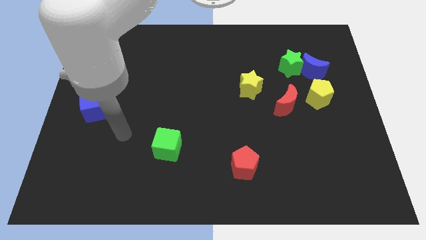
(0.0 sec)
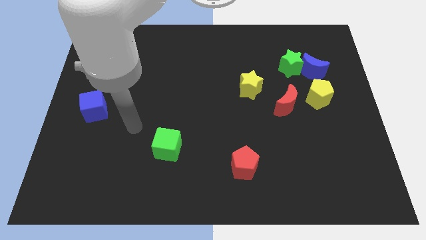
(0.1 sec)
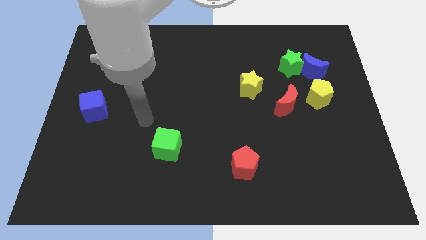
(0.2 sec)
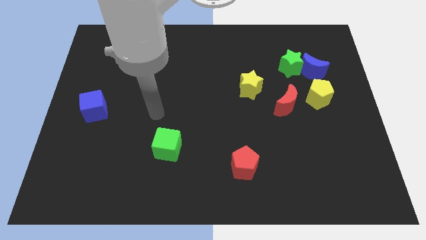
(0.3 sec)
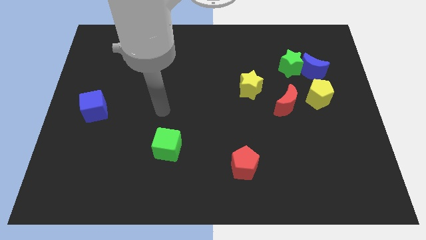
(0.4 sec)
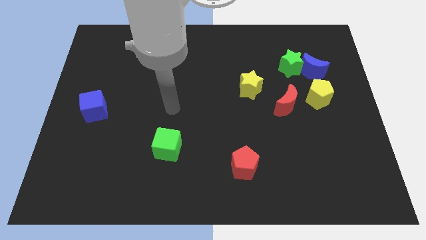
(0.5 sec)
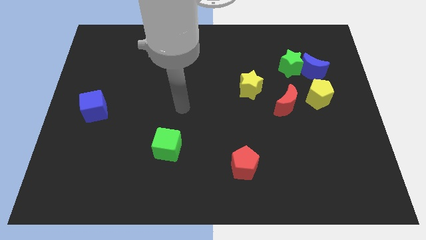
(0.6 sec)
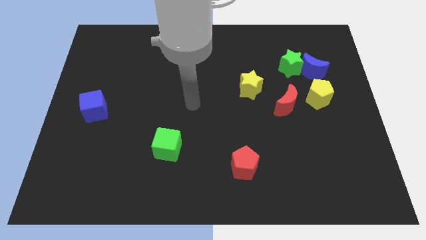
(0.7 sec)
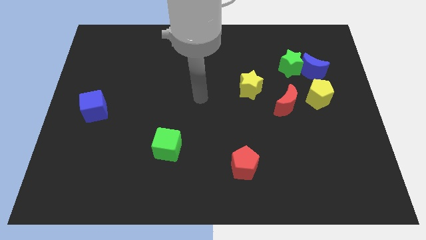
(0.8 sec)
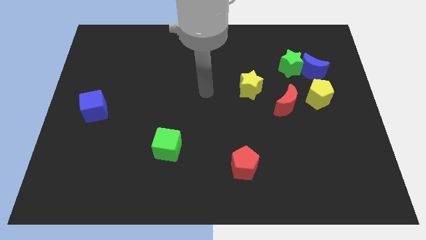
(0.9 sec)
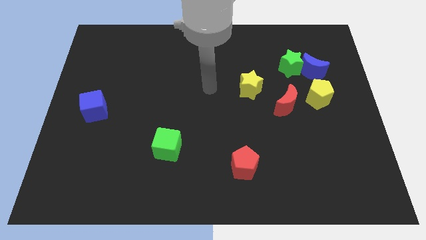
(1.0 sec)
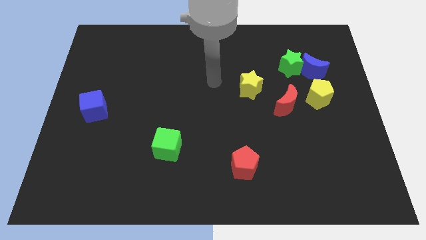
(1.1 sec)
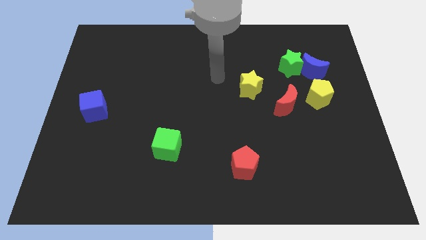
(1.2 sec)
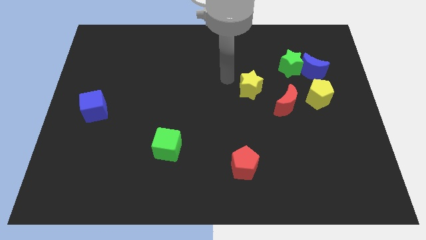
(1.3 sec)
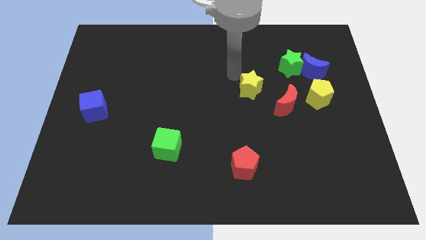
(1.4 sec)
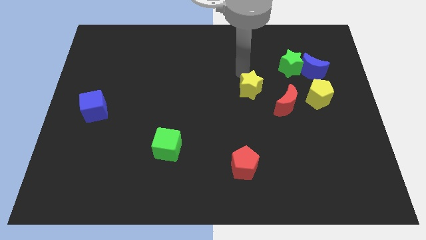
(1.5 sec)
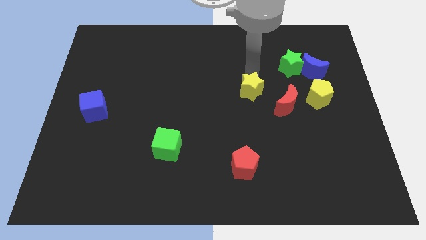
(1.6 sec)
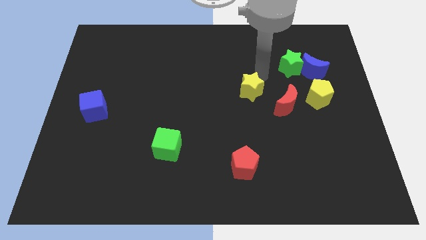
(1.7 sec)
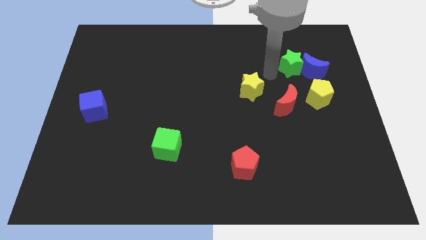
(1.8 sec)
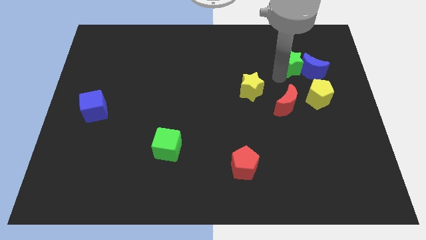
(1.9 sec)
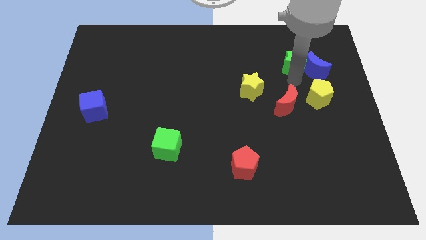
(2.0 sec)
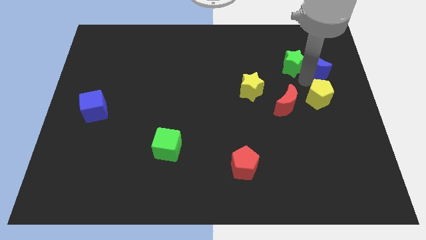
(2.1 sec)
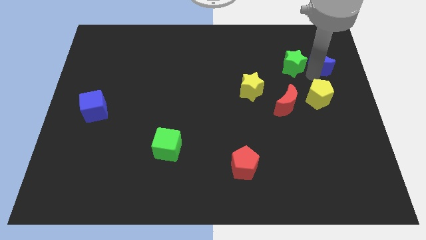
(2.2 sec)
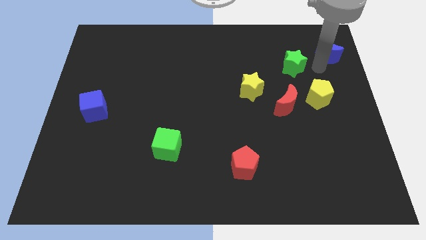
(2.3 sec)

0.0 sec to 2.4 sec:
separate the green star from the blue moon

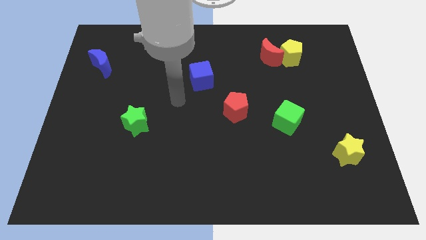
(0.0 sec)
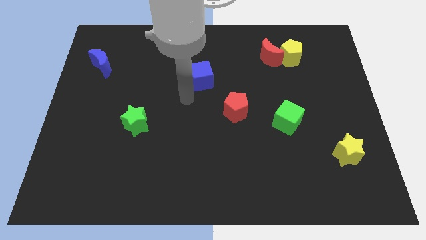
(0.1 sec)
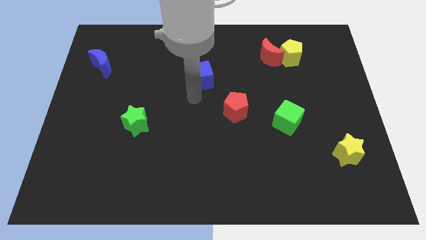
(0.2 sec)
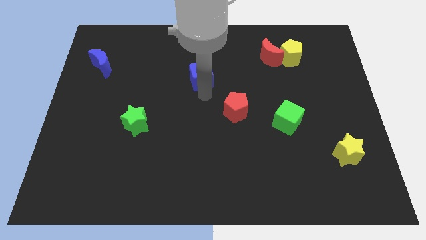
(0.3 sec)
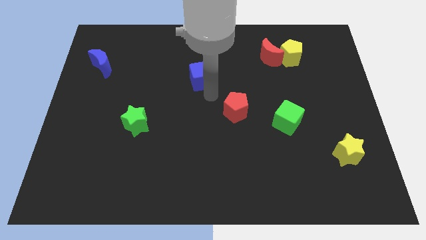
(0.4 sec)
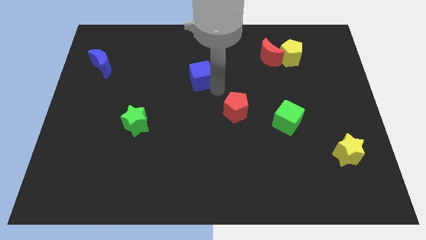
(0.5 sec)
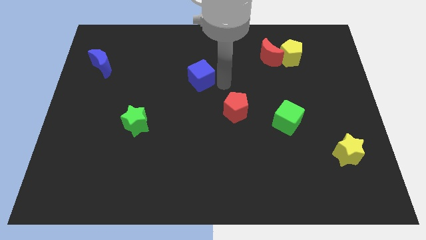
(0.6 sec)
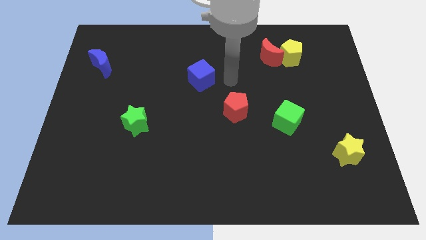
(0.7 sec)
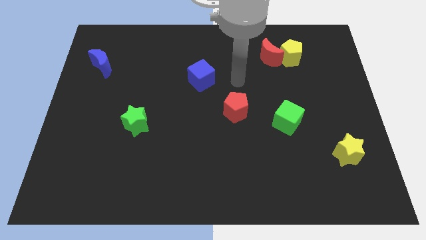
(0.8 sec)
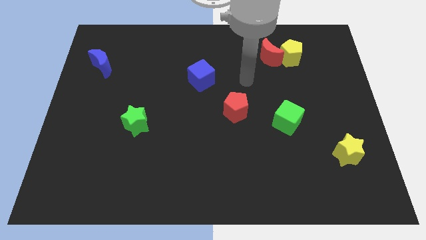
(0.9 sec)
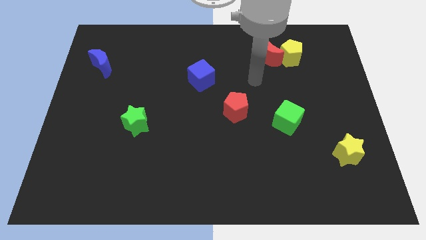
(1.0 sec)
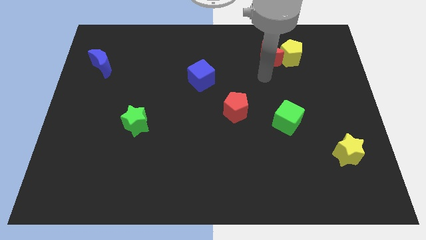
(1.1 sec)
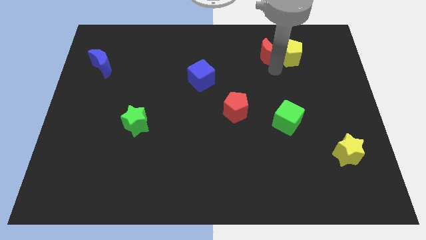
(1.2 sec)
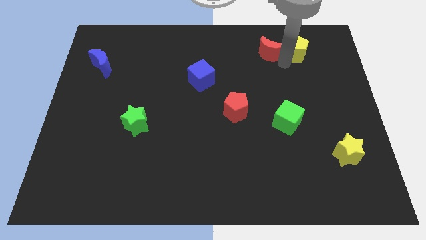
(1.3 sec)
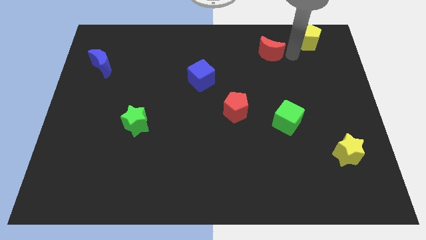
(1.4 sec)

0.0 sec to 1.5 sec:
move the red moon away from the yellow pentagon

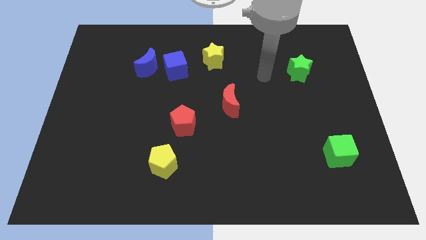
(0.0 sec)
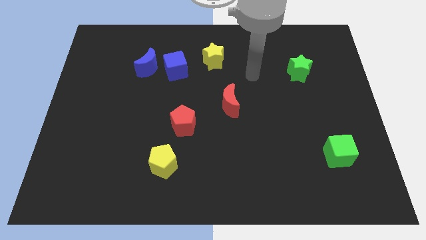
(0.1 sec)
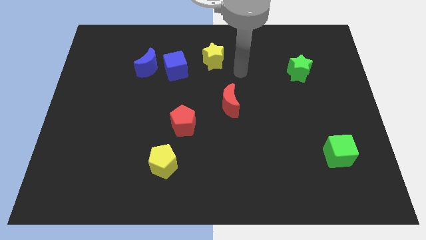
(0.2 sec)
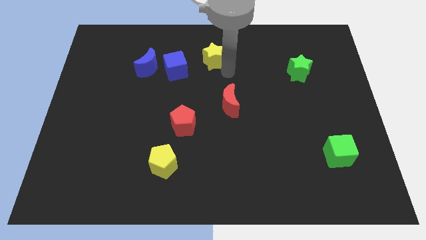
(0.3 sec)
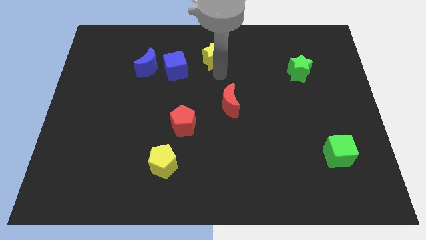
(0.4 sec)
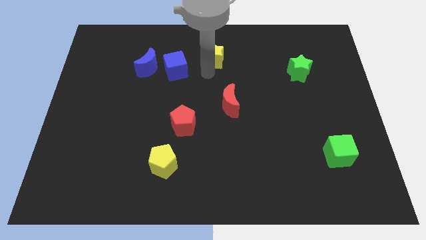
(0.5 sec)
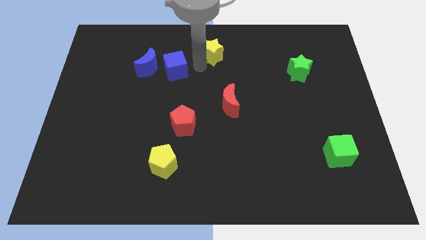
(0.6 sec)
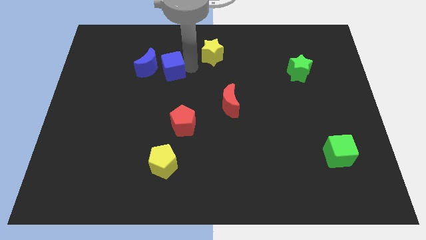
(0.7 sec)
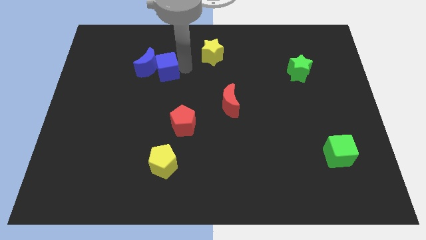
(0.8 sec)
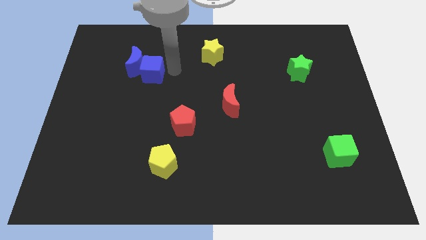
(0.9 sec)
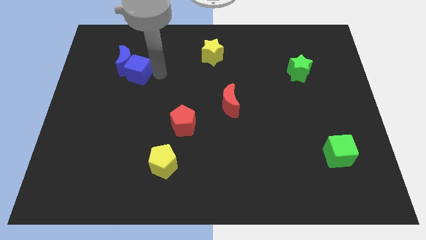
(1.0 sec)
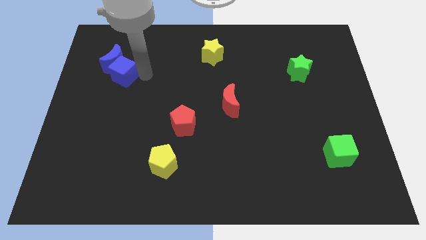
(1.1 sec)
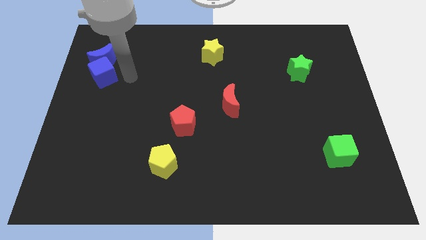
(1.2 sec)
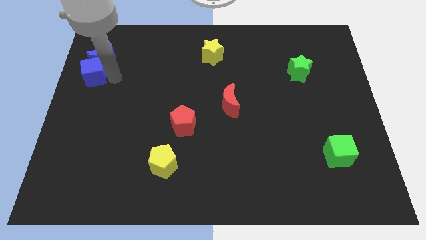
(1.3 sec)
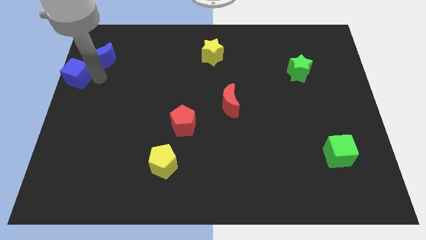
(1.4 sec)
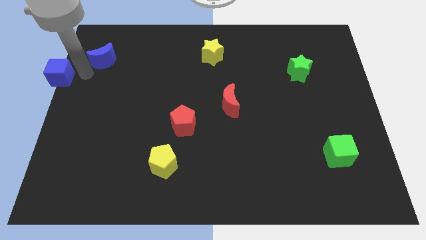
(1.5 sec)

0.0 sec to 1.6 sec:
separate the blue moon from the blue cube

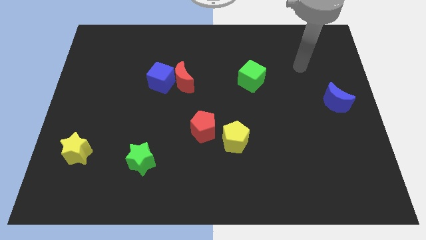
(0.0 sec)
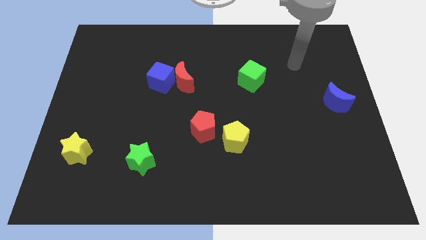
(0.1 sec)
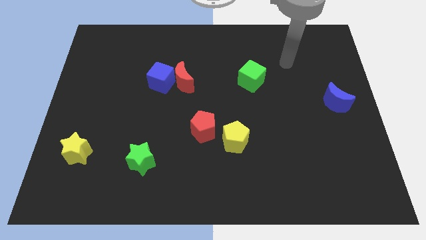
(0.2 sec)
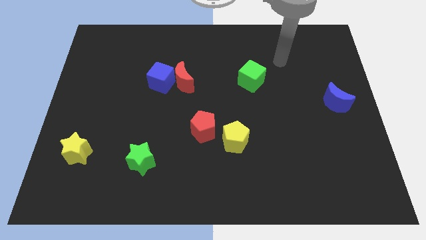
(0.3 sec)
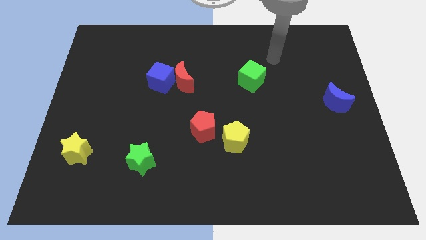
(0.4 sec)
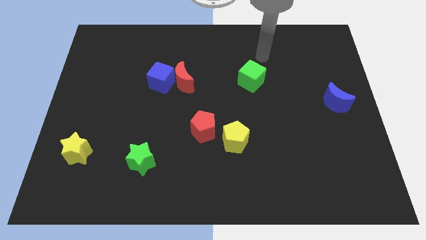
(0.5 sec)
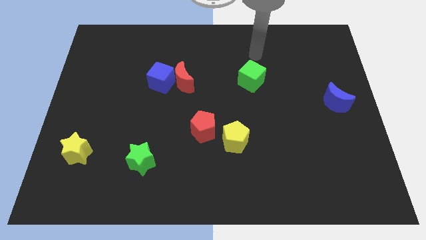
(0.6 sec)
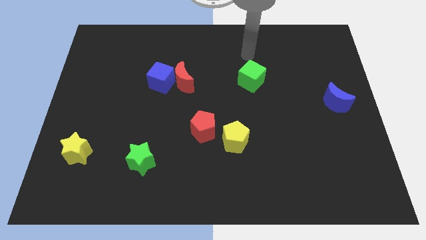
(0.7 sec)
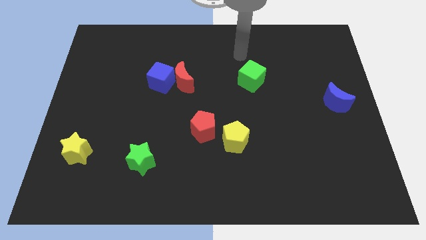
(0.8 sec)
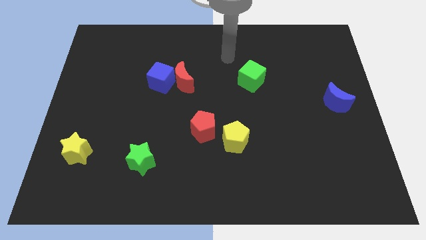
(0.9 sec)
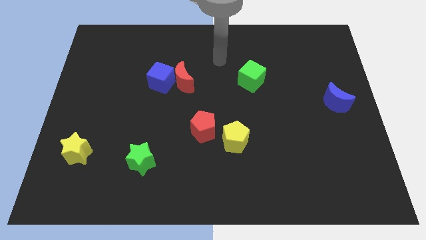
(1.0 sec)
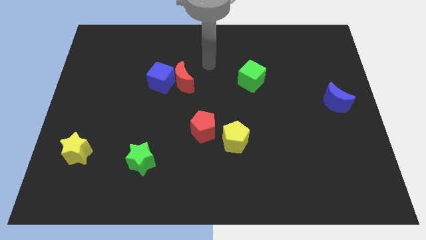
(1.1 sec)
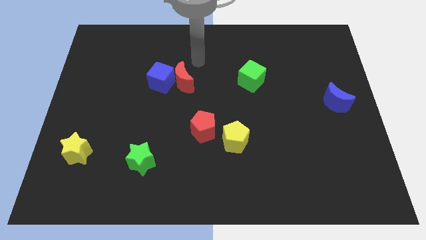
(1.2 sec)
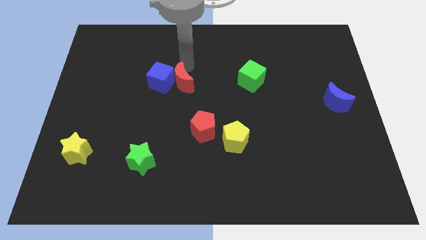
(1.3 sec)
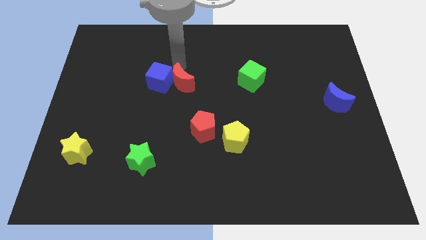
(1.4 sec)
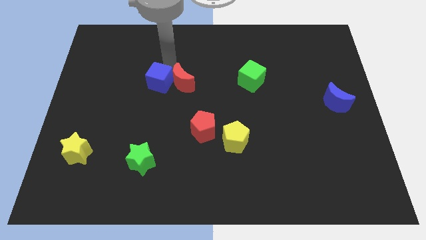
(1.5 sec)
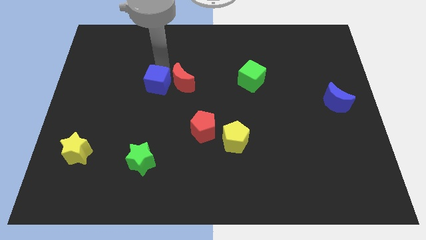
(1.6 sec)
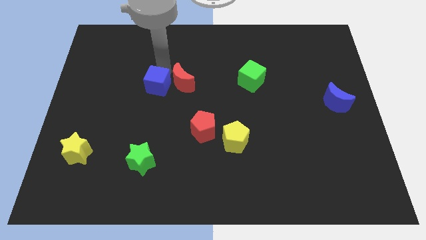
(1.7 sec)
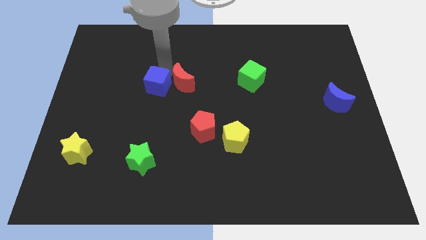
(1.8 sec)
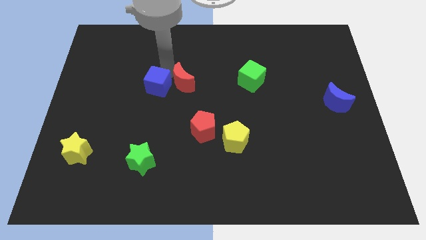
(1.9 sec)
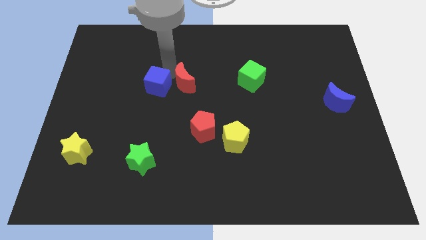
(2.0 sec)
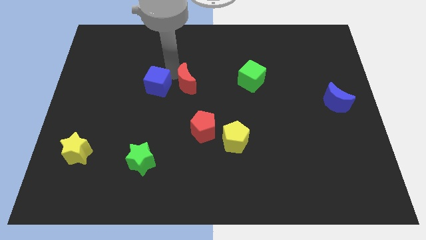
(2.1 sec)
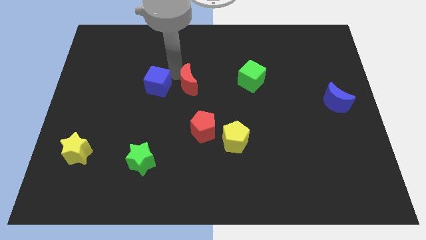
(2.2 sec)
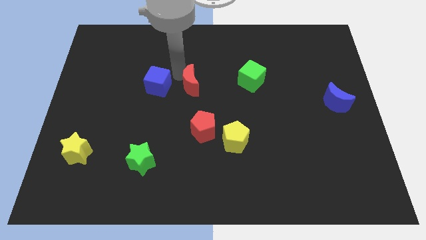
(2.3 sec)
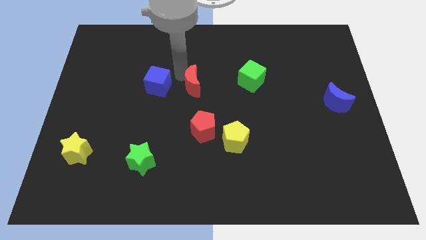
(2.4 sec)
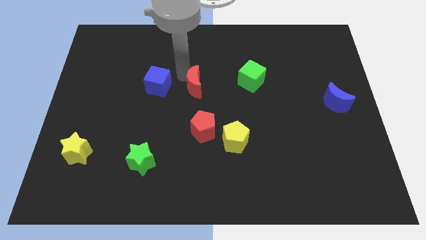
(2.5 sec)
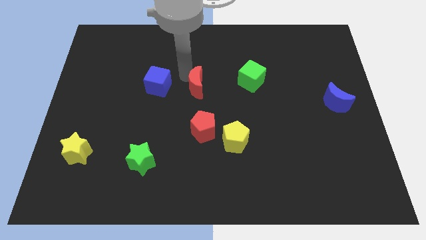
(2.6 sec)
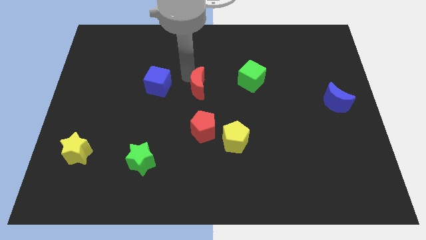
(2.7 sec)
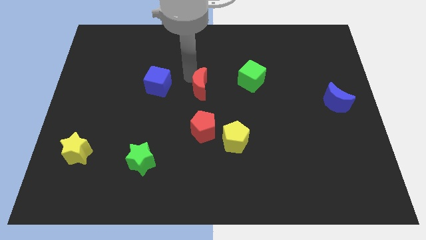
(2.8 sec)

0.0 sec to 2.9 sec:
move the red moon away from the blue cube

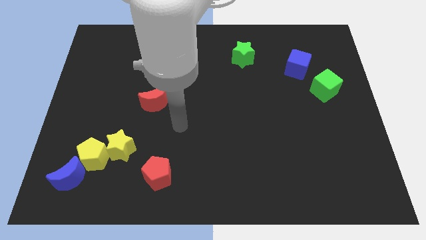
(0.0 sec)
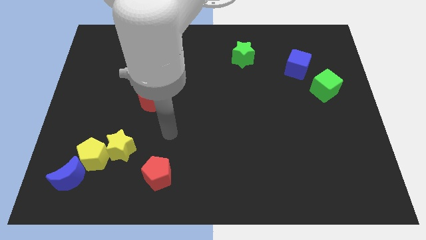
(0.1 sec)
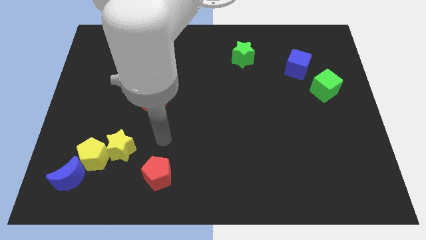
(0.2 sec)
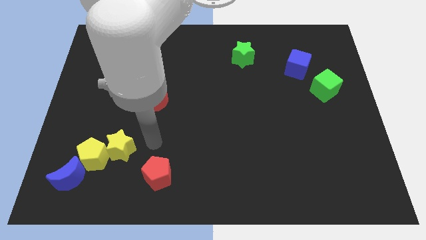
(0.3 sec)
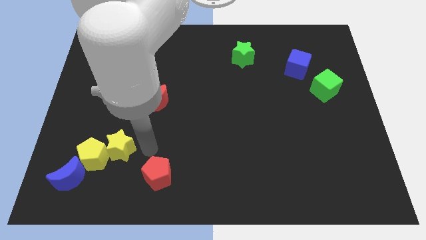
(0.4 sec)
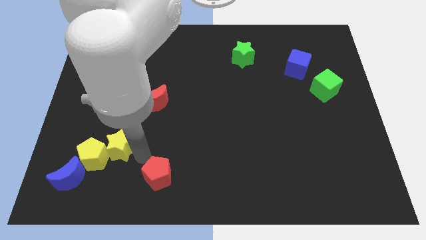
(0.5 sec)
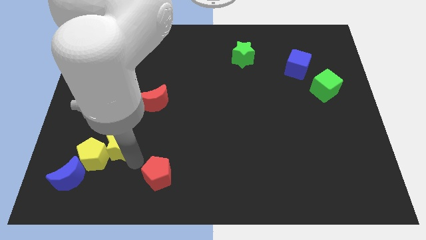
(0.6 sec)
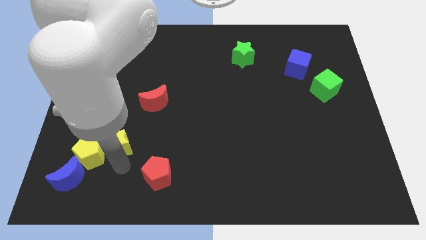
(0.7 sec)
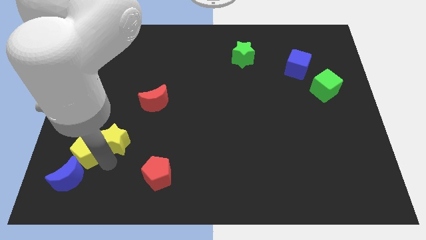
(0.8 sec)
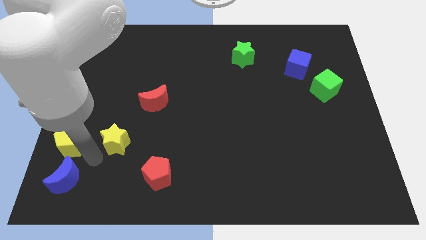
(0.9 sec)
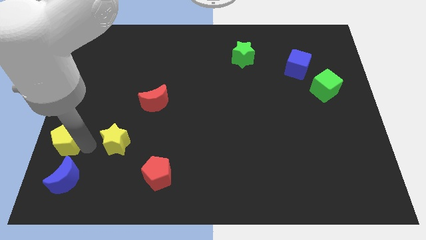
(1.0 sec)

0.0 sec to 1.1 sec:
pull the yellow star apart from the yellow pentagon
